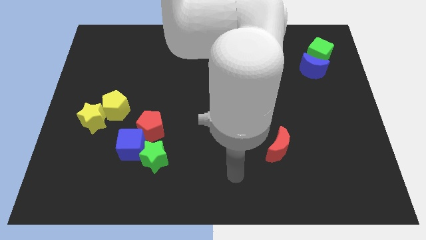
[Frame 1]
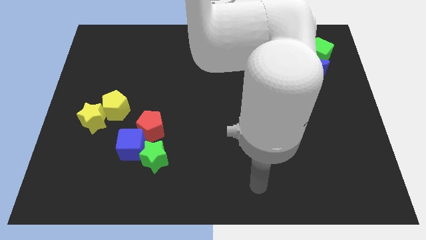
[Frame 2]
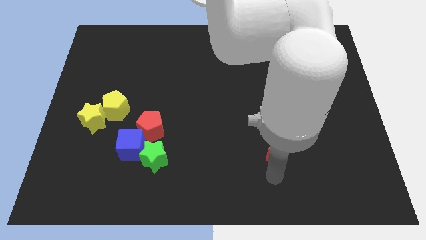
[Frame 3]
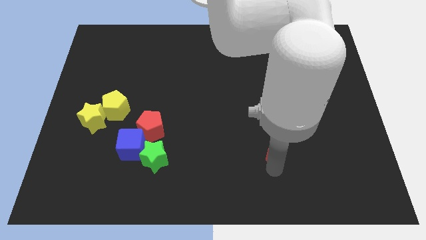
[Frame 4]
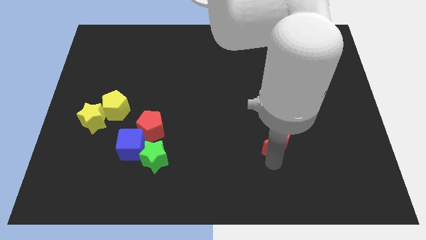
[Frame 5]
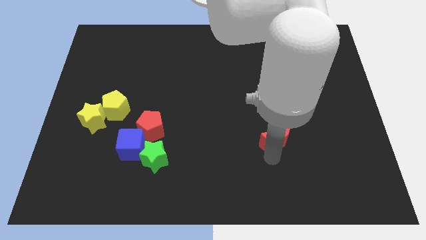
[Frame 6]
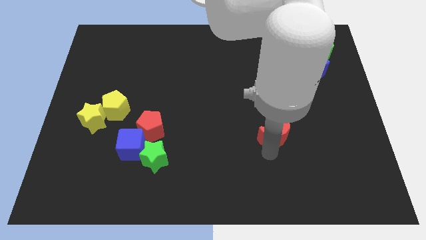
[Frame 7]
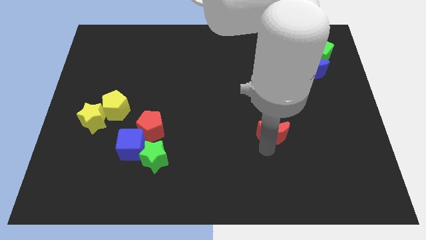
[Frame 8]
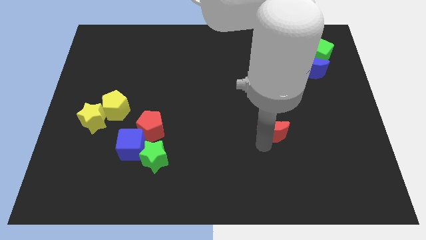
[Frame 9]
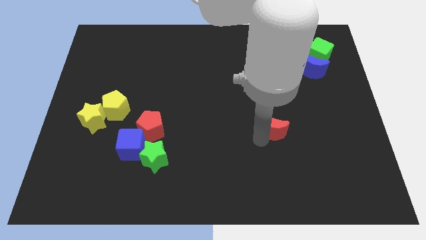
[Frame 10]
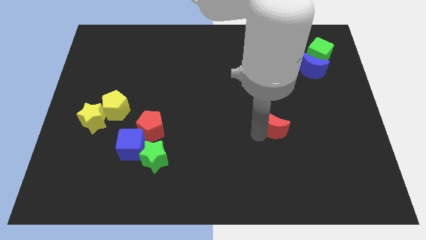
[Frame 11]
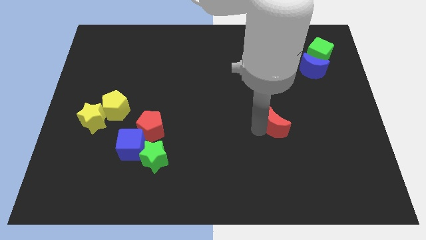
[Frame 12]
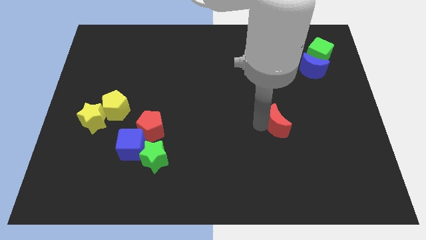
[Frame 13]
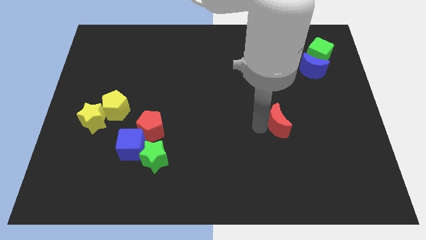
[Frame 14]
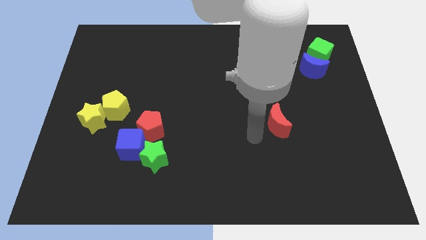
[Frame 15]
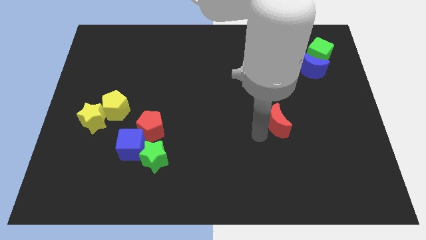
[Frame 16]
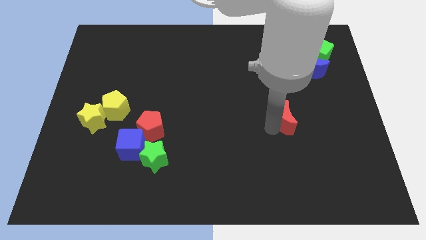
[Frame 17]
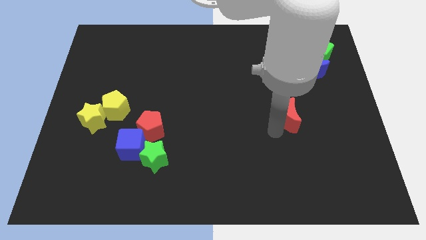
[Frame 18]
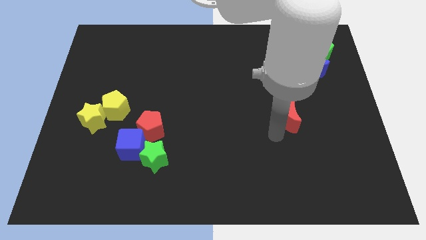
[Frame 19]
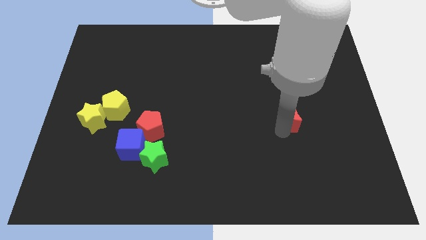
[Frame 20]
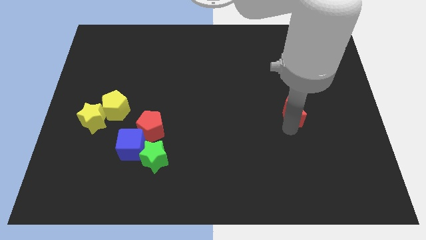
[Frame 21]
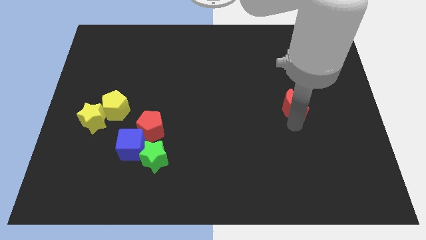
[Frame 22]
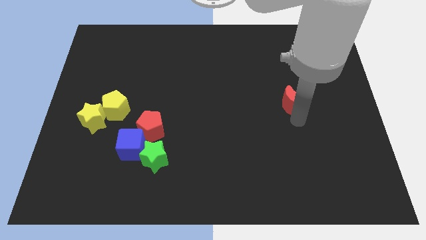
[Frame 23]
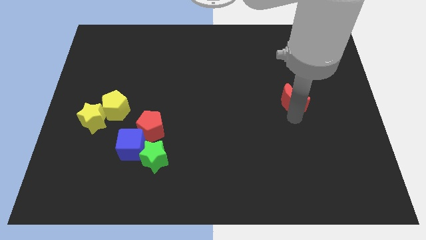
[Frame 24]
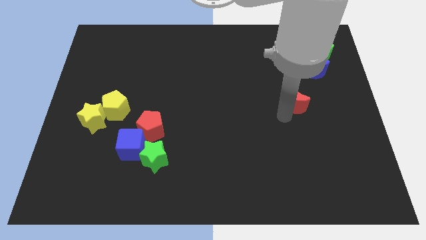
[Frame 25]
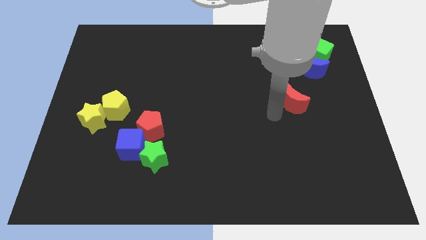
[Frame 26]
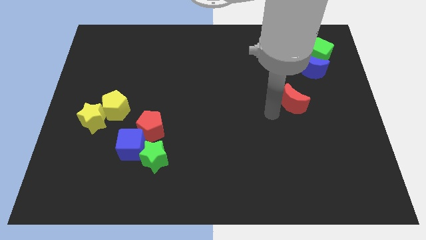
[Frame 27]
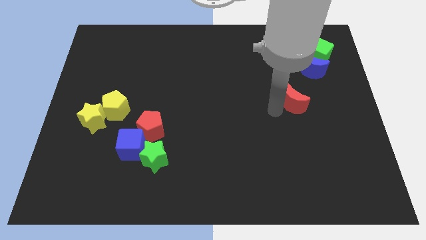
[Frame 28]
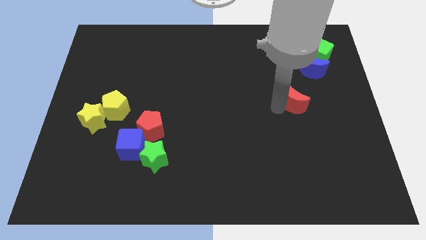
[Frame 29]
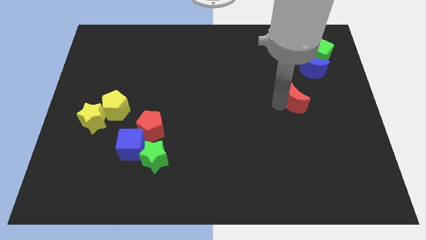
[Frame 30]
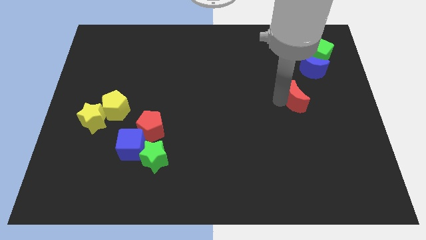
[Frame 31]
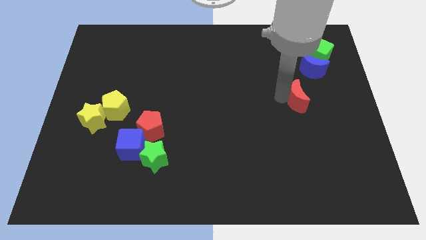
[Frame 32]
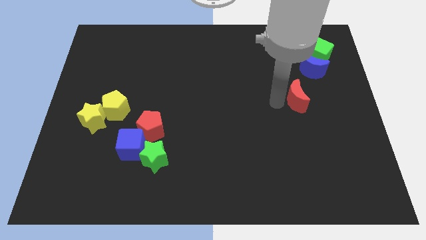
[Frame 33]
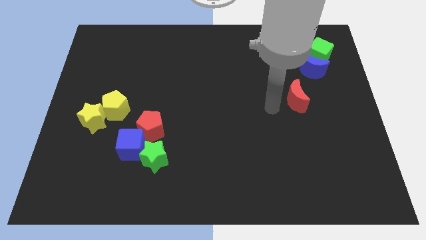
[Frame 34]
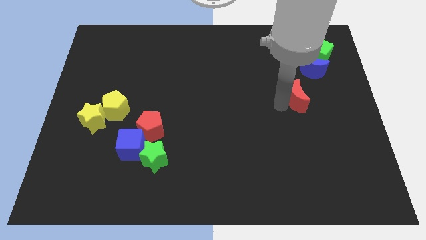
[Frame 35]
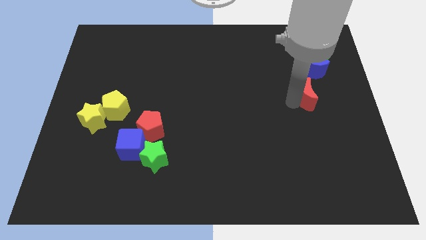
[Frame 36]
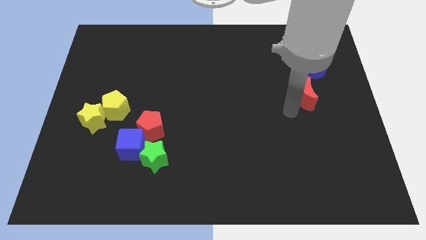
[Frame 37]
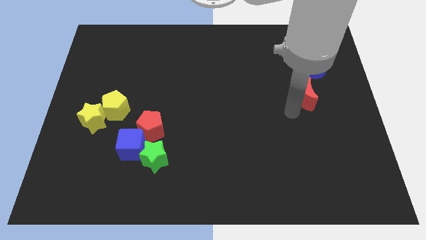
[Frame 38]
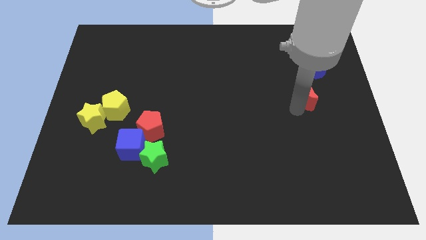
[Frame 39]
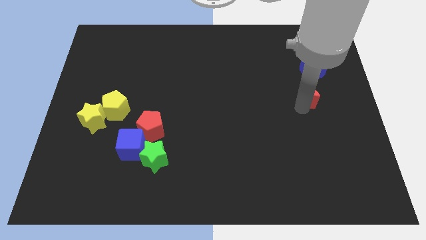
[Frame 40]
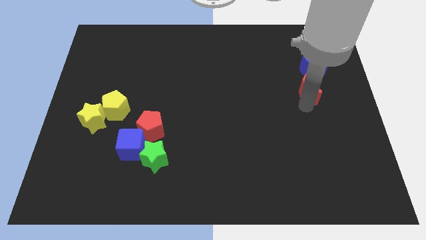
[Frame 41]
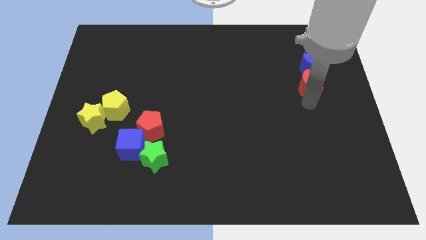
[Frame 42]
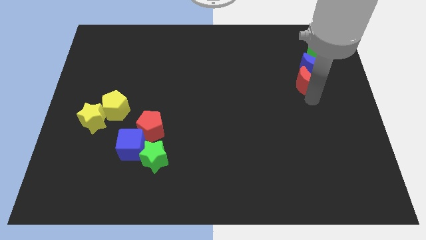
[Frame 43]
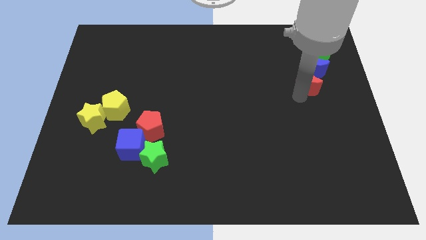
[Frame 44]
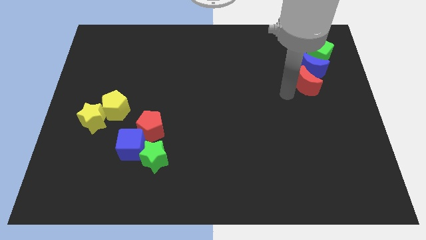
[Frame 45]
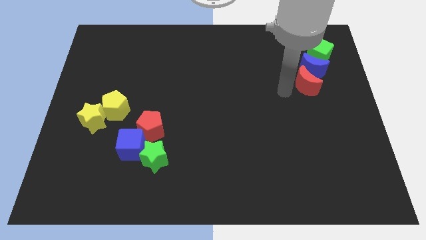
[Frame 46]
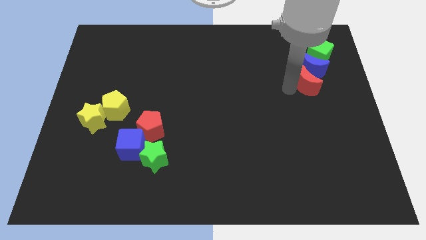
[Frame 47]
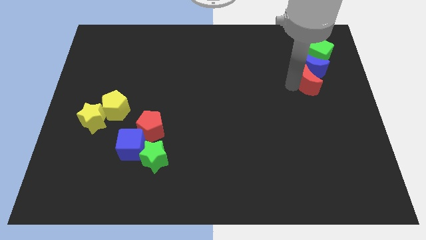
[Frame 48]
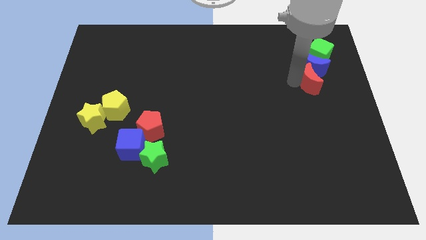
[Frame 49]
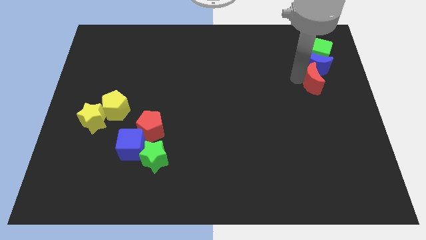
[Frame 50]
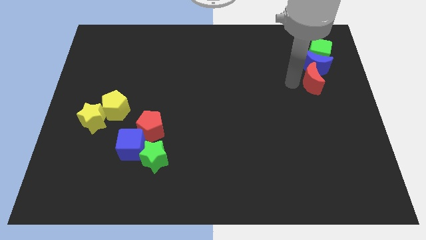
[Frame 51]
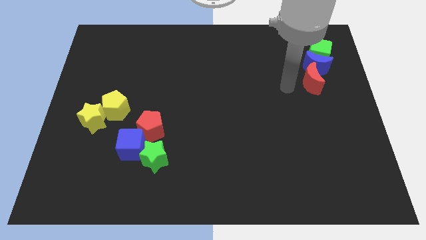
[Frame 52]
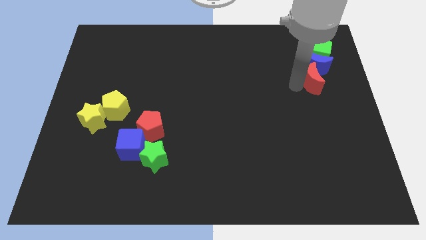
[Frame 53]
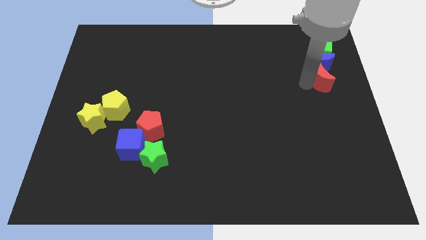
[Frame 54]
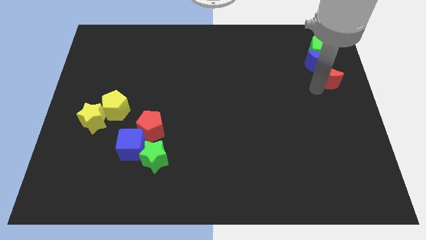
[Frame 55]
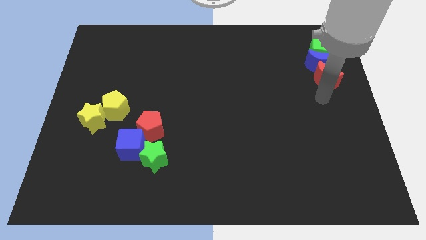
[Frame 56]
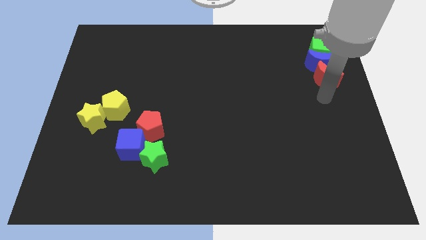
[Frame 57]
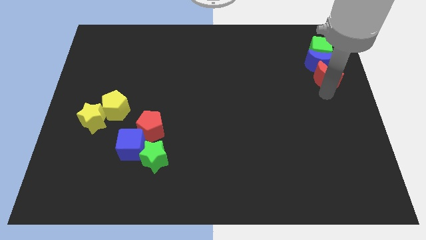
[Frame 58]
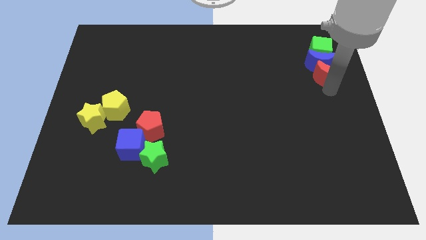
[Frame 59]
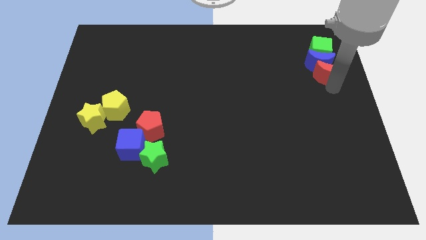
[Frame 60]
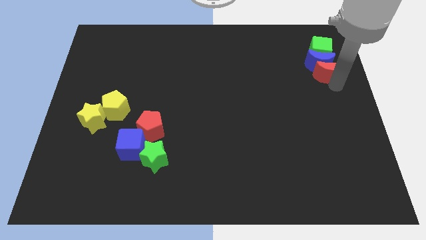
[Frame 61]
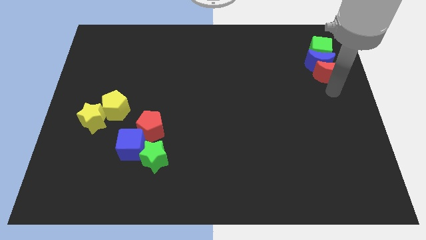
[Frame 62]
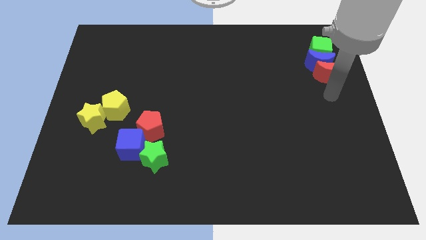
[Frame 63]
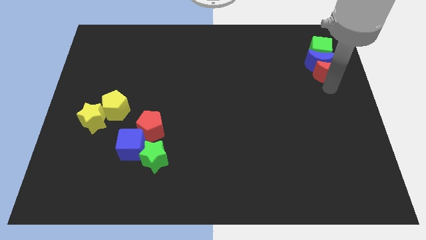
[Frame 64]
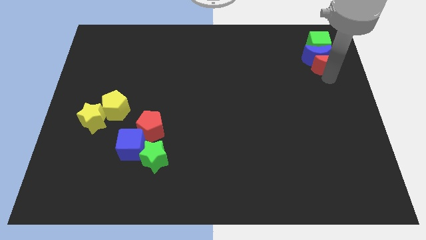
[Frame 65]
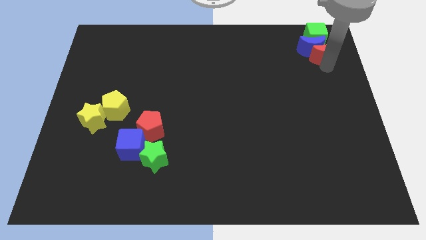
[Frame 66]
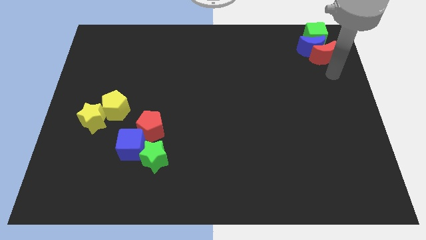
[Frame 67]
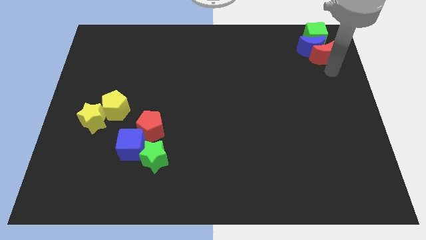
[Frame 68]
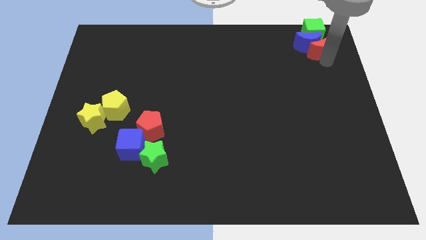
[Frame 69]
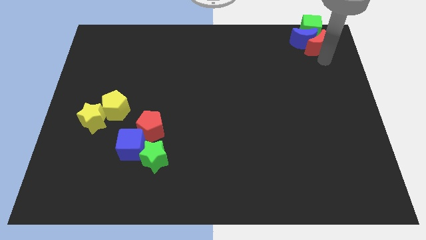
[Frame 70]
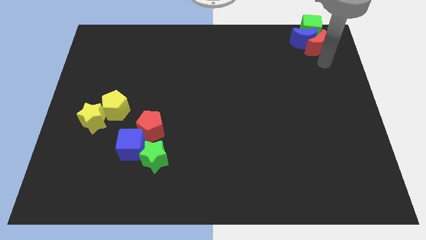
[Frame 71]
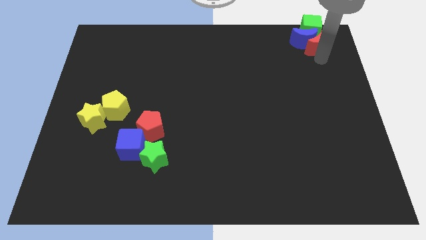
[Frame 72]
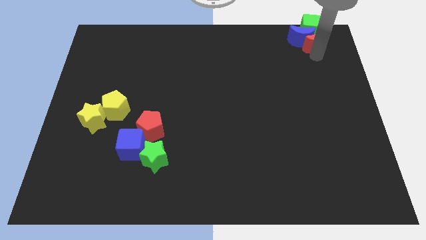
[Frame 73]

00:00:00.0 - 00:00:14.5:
move the red moon to the green cube

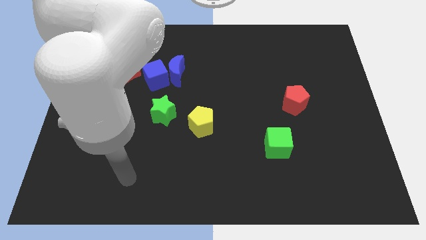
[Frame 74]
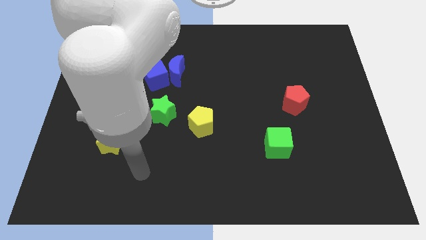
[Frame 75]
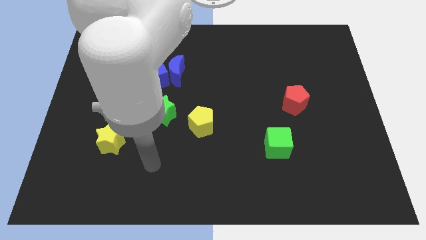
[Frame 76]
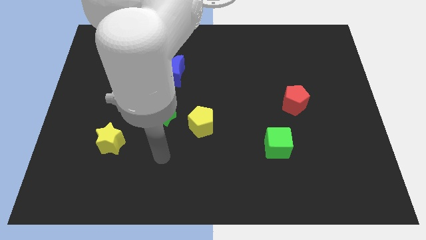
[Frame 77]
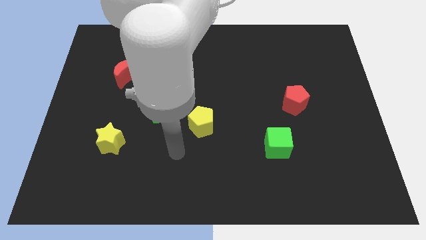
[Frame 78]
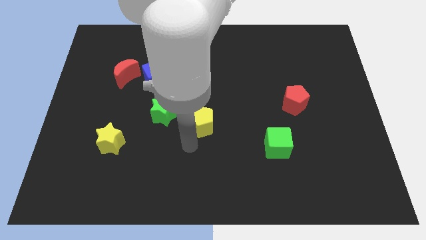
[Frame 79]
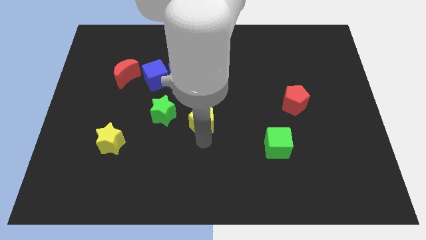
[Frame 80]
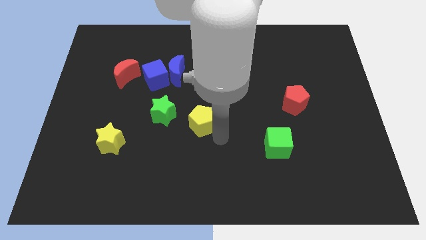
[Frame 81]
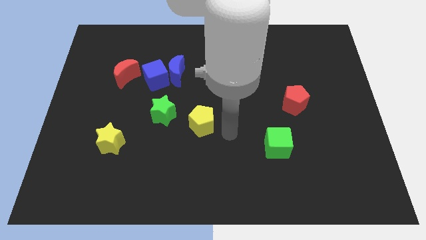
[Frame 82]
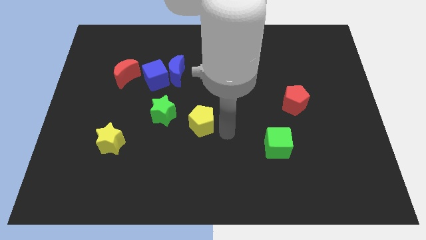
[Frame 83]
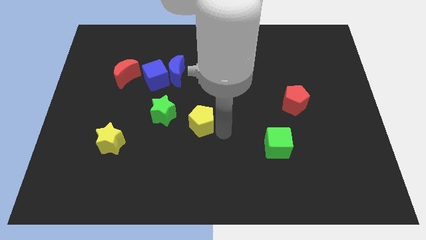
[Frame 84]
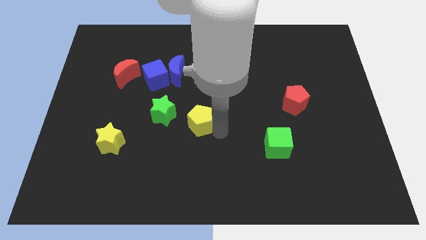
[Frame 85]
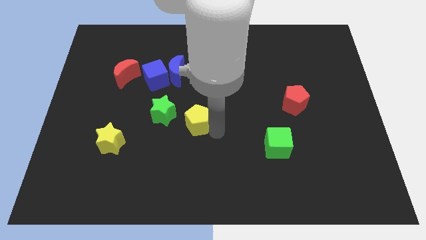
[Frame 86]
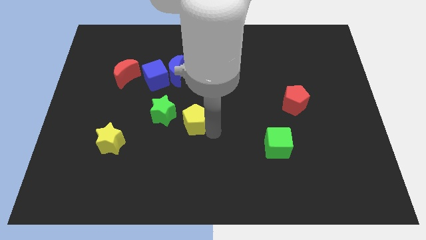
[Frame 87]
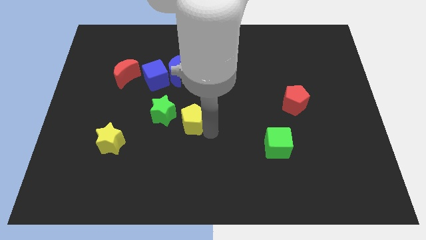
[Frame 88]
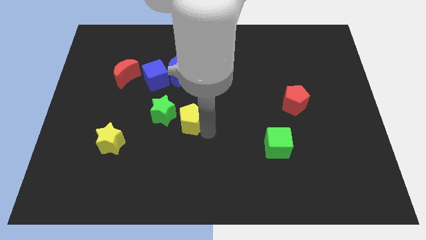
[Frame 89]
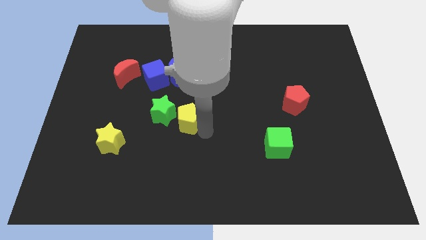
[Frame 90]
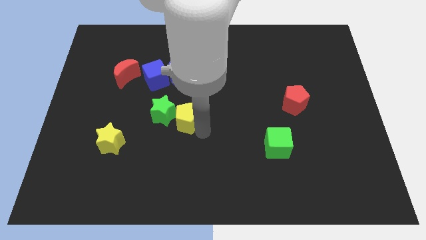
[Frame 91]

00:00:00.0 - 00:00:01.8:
slide the yellow pentagon next to the green star
